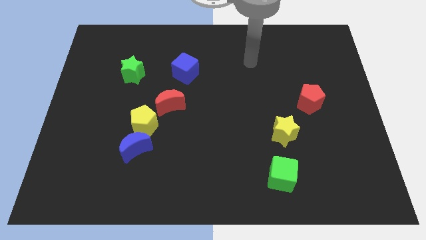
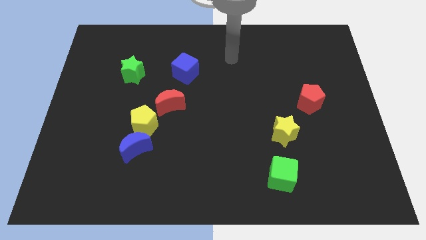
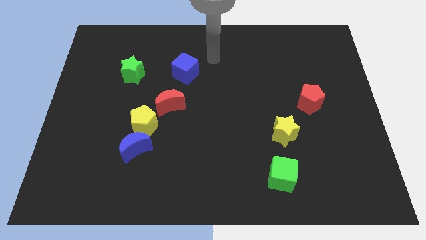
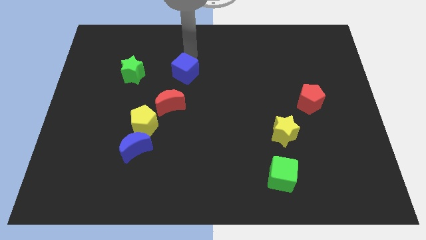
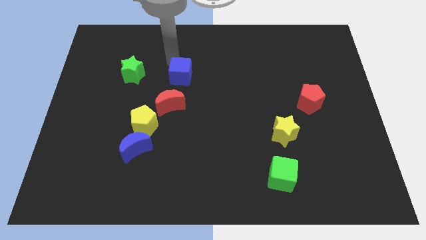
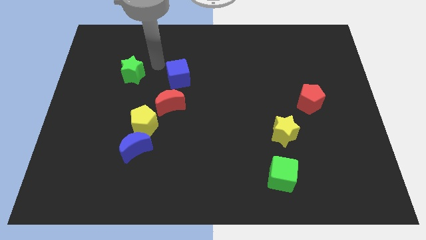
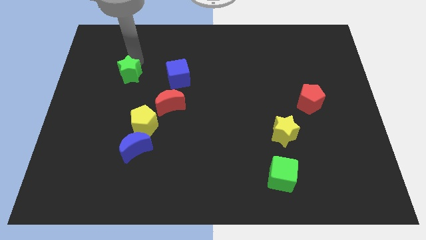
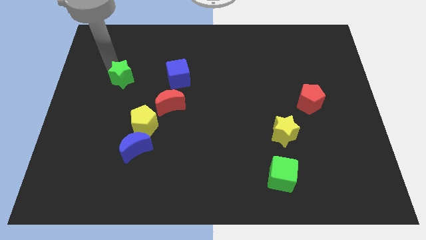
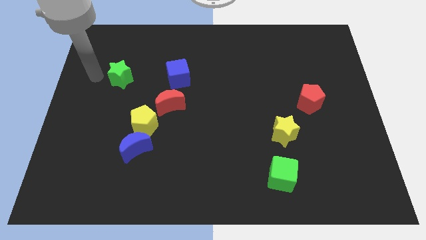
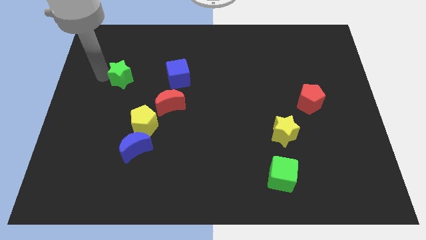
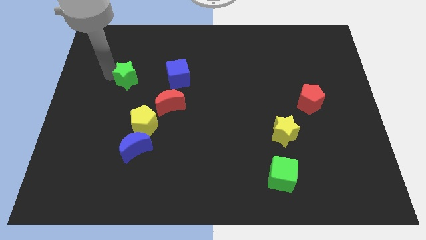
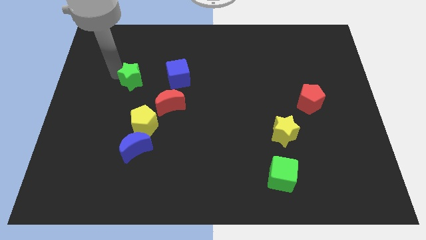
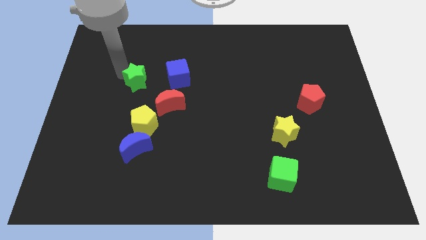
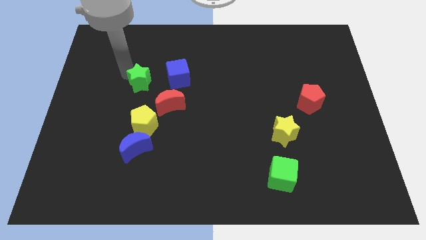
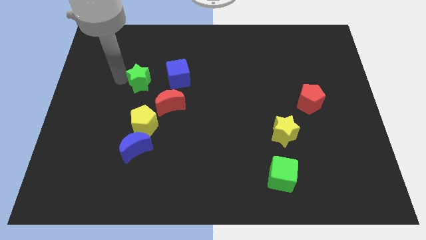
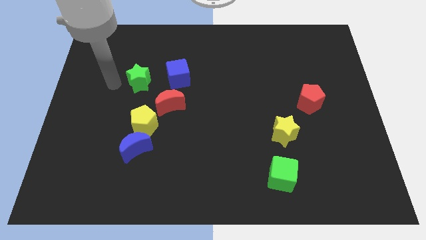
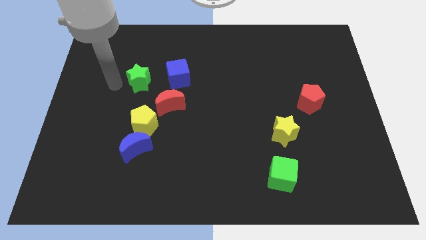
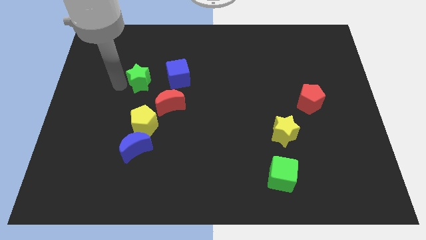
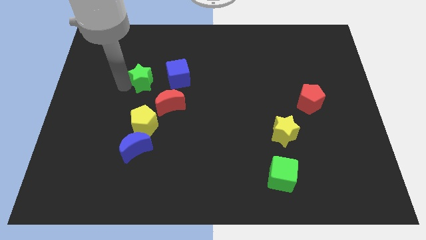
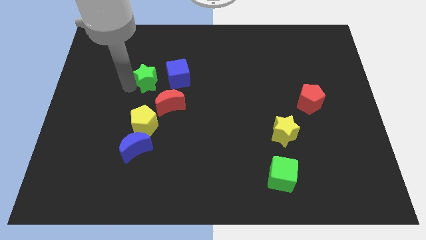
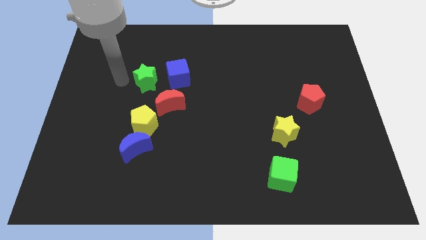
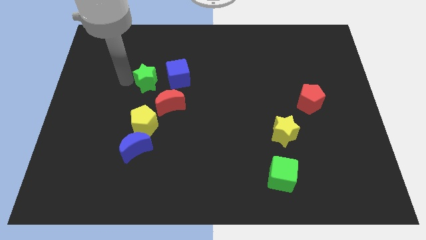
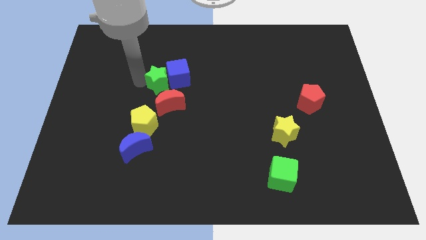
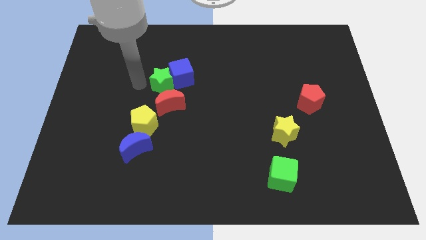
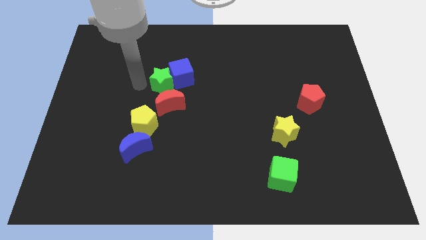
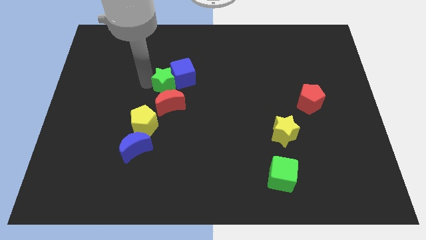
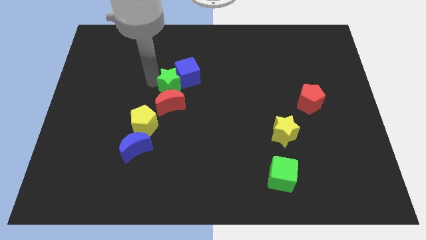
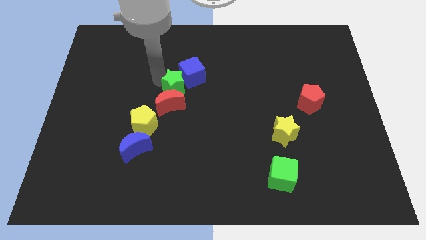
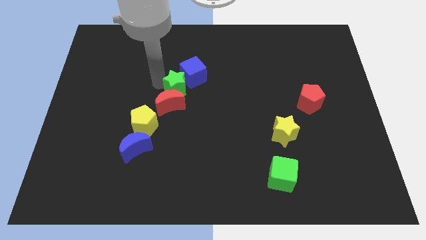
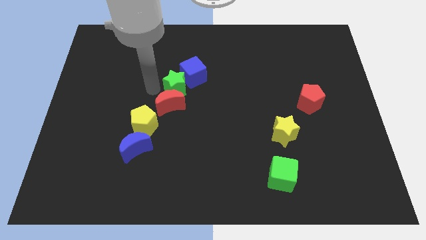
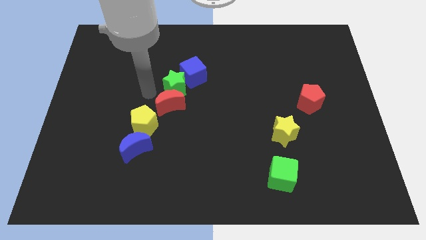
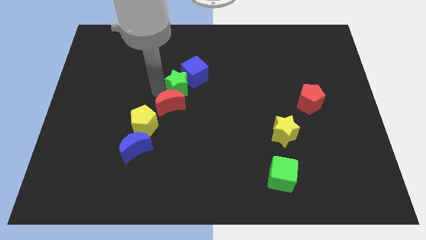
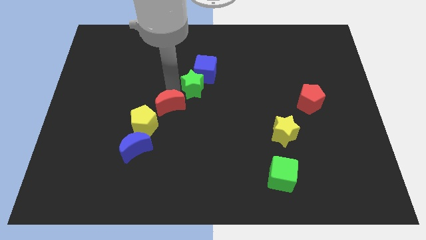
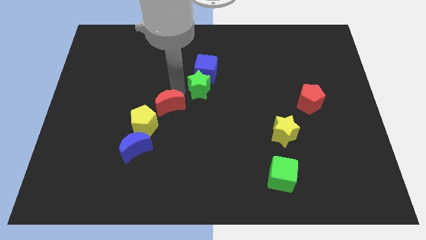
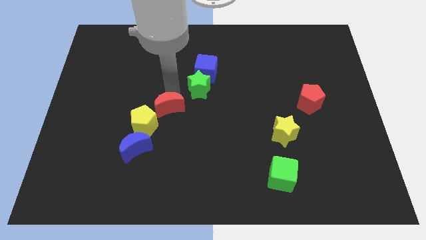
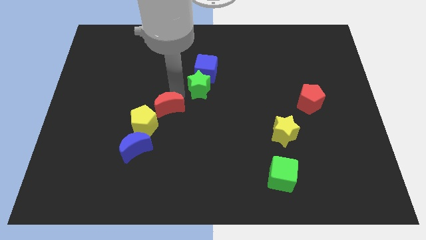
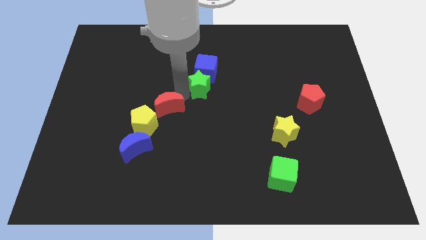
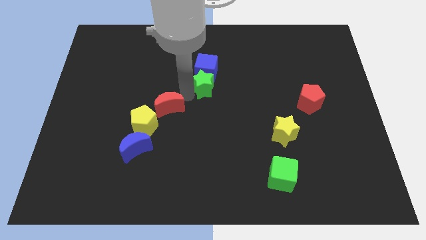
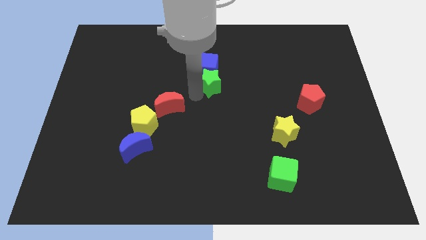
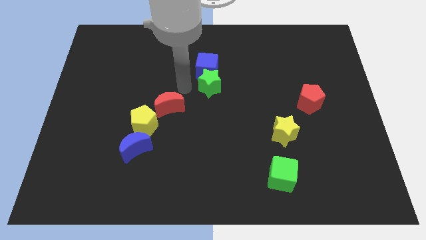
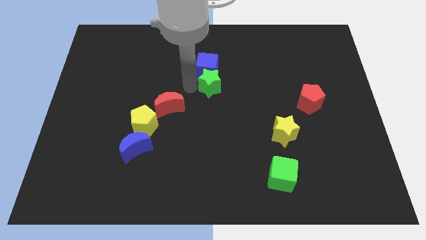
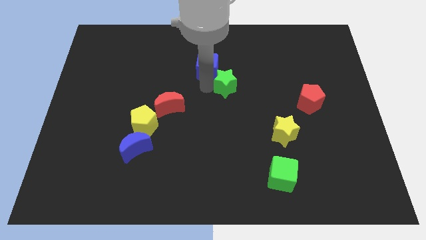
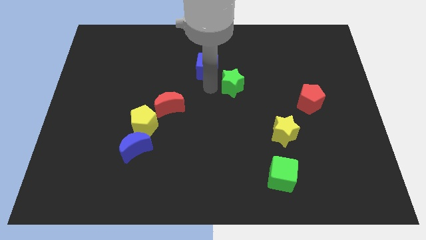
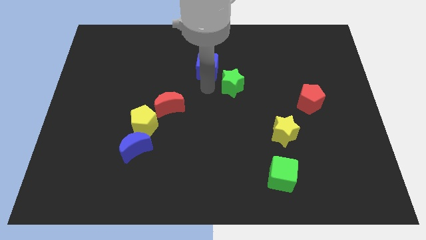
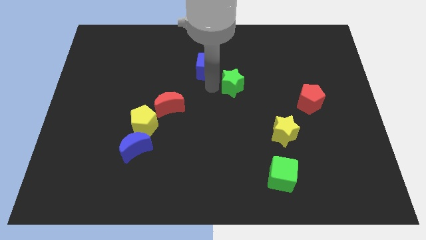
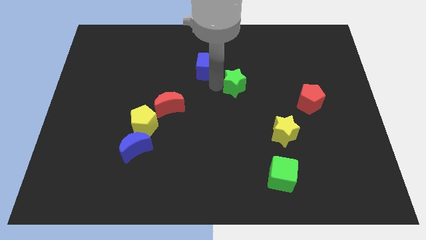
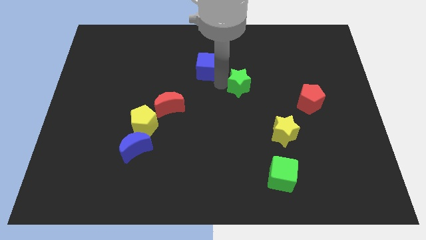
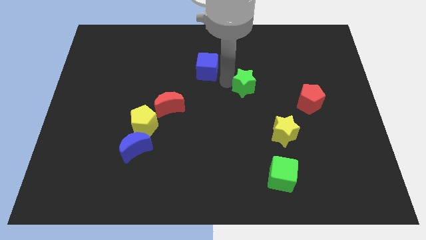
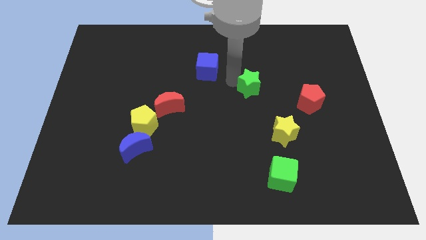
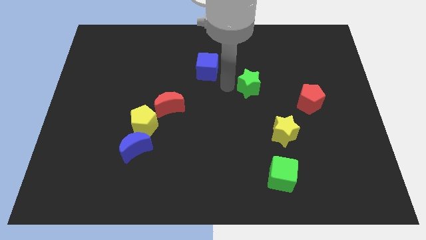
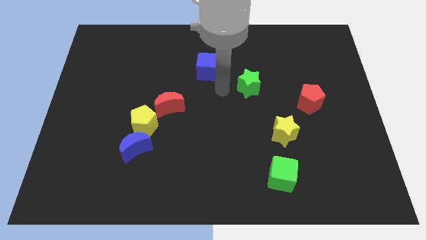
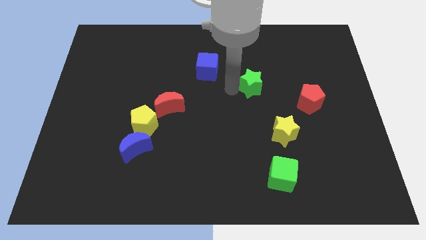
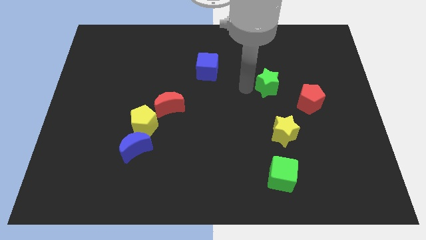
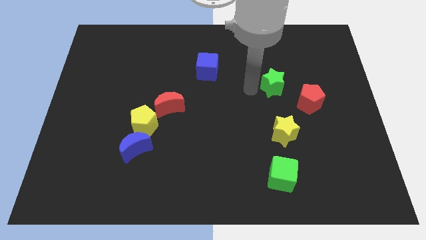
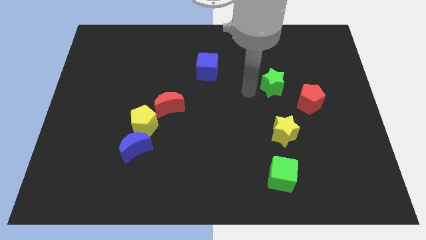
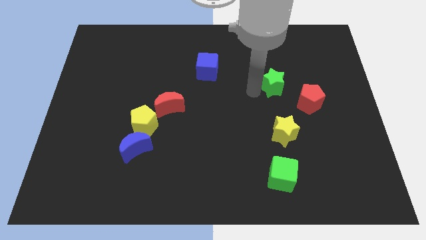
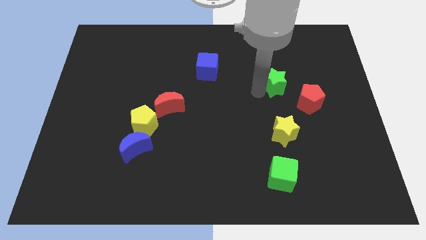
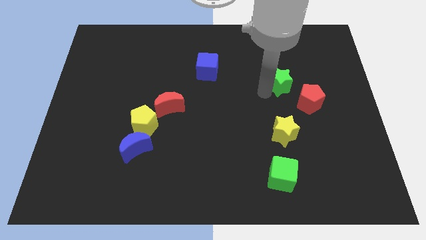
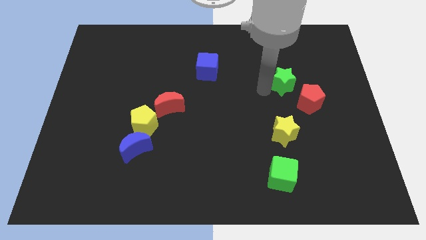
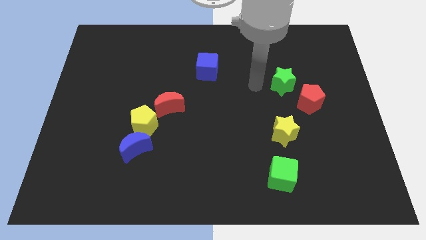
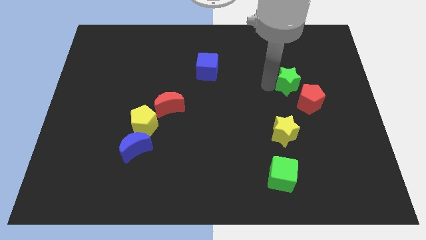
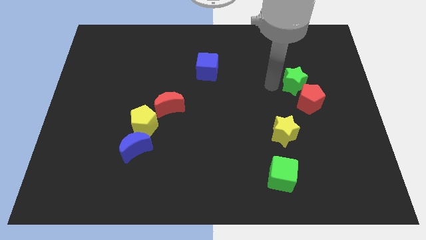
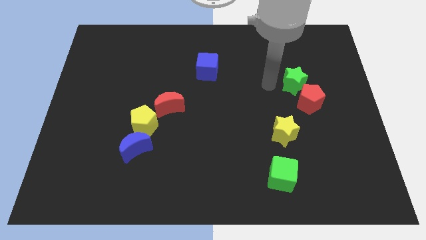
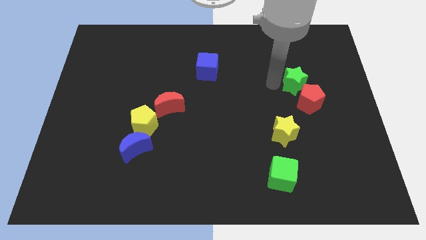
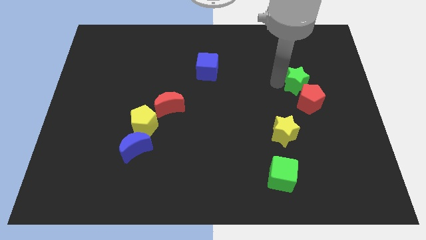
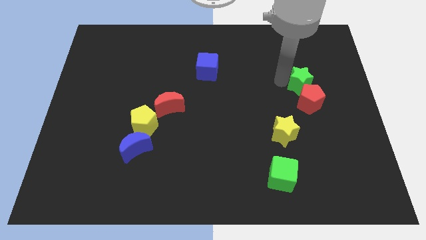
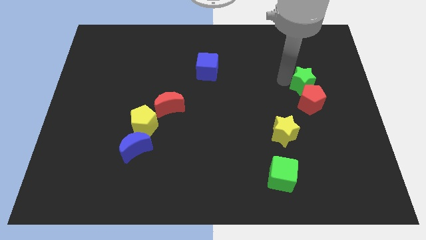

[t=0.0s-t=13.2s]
push the green star diagonally up and to the right of the red pentagon

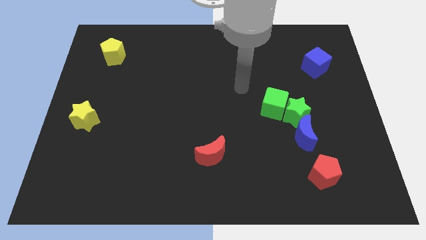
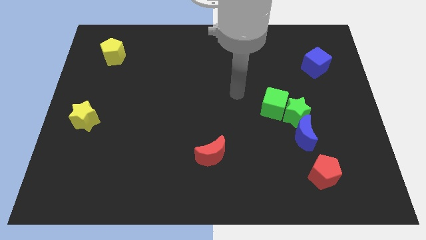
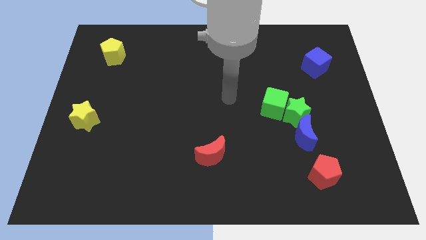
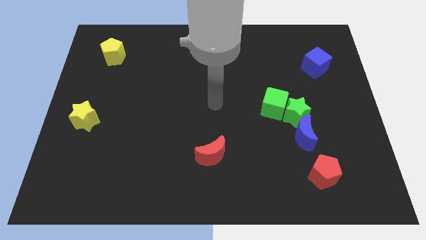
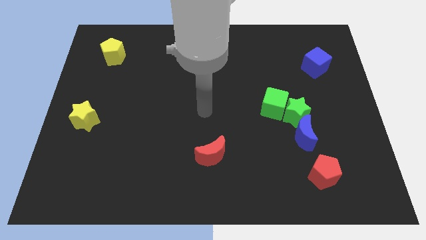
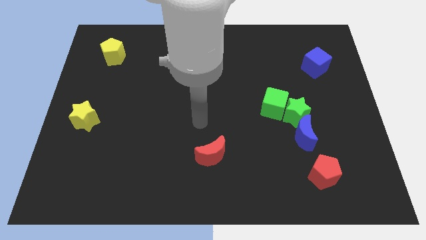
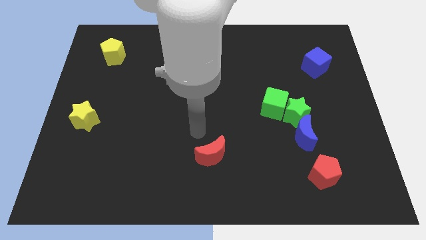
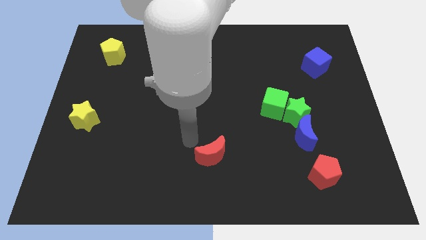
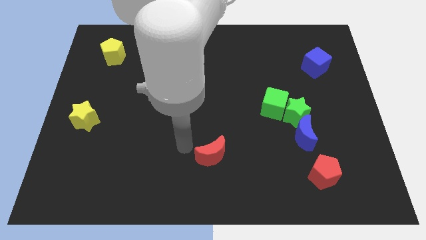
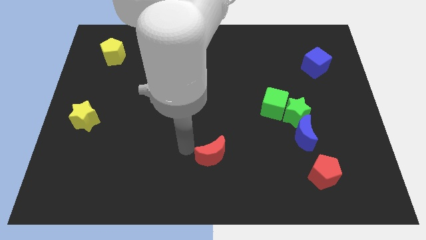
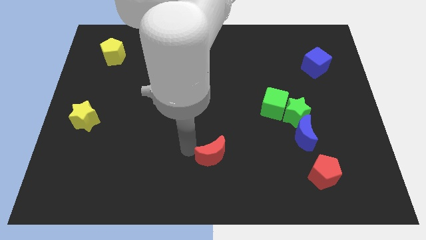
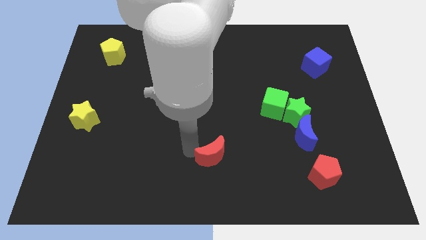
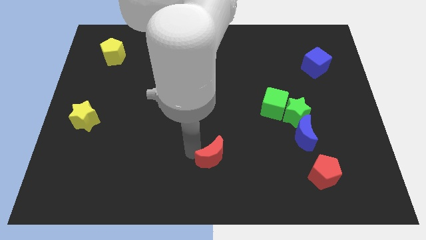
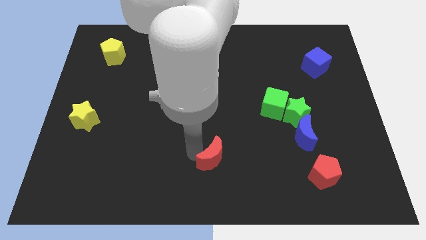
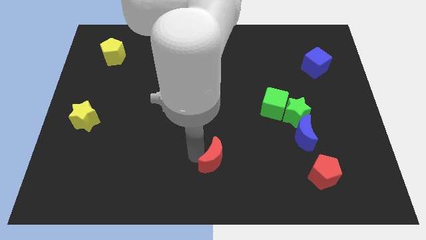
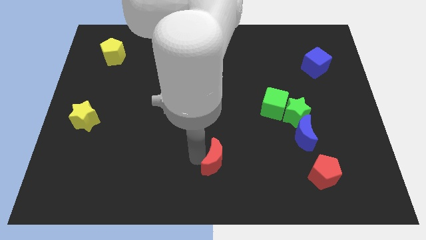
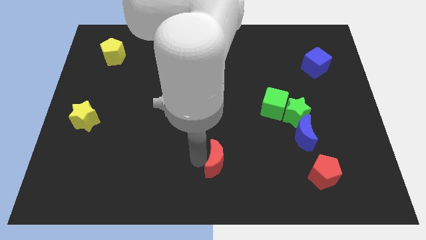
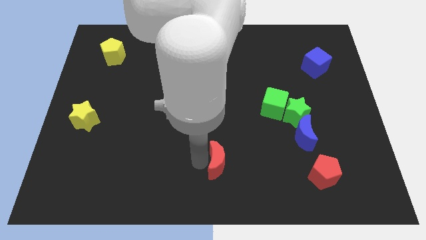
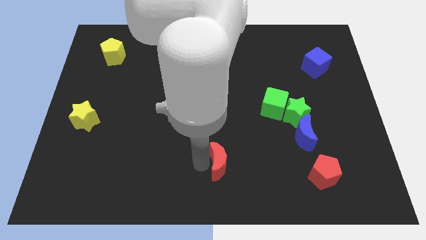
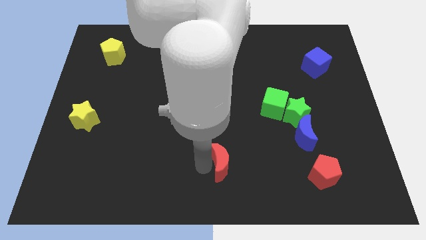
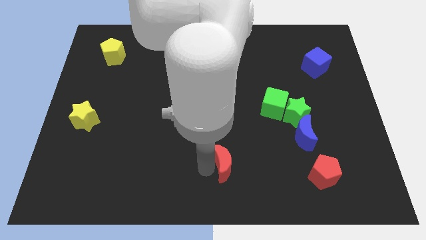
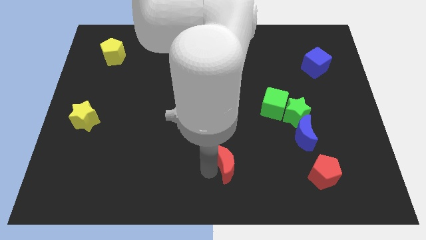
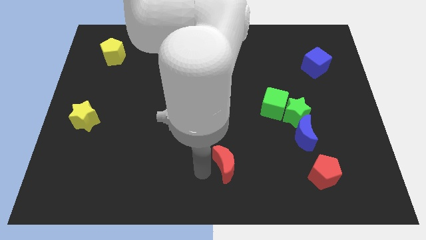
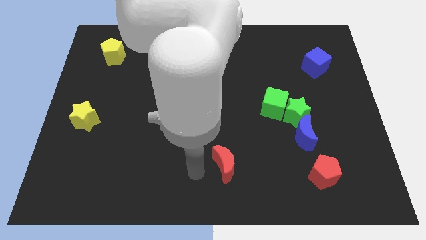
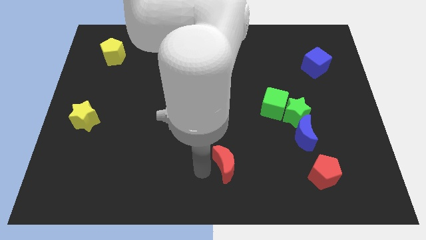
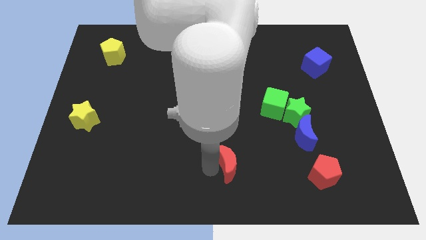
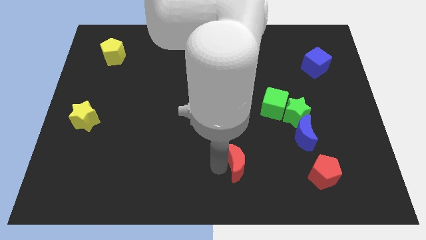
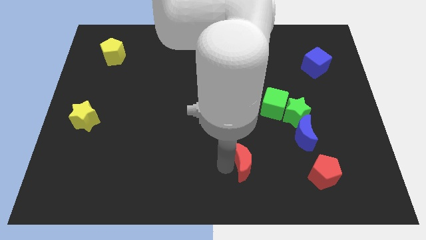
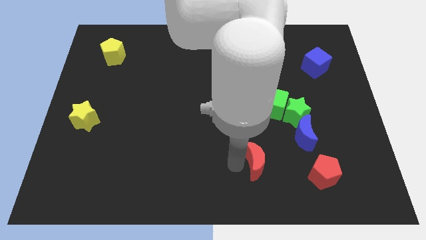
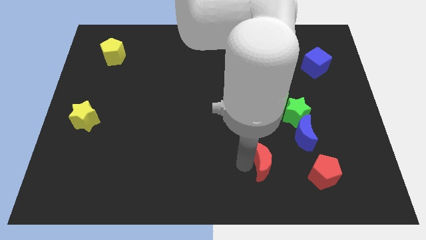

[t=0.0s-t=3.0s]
slide the red moon to the bottom left of the blue moon
